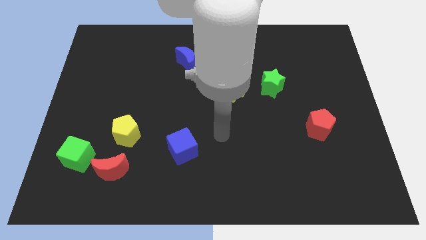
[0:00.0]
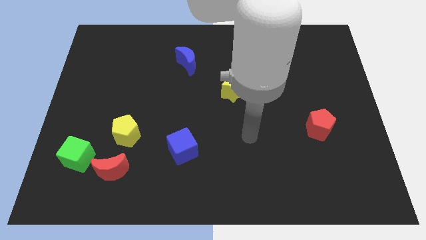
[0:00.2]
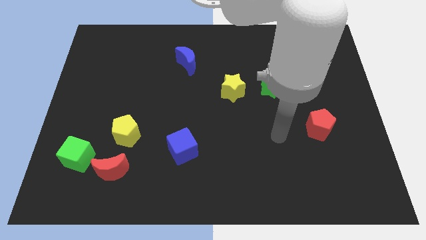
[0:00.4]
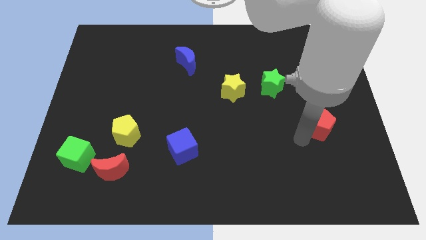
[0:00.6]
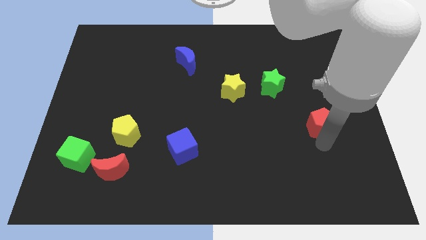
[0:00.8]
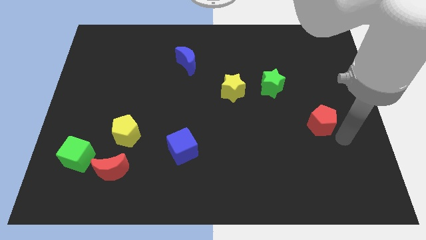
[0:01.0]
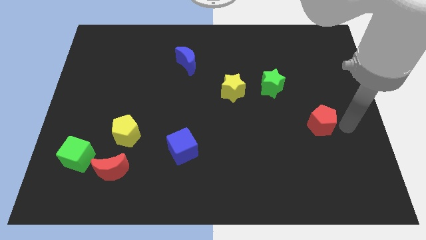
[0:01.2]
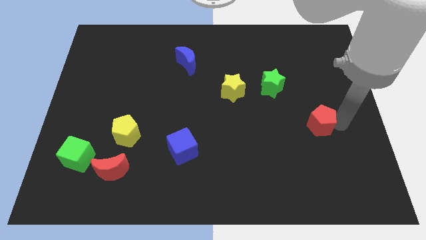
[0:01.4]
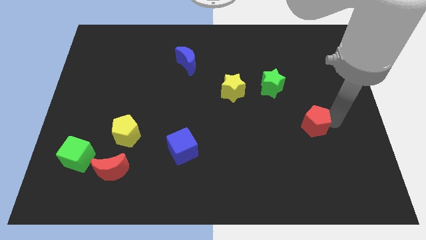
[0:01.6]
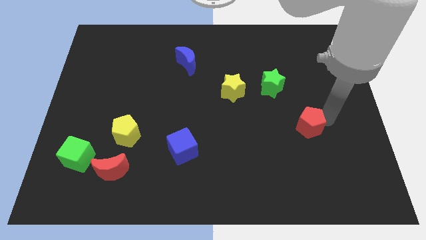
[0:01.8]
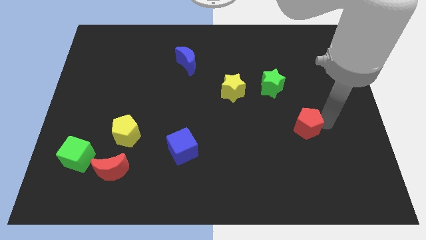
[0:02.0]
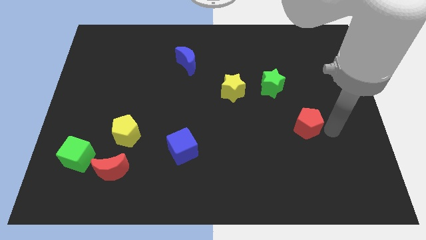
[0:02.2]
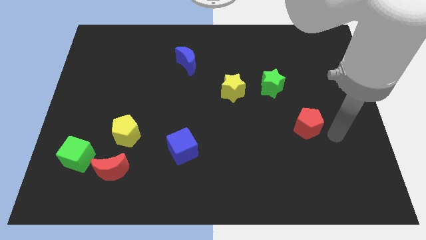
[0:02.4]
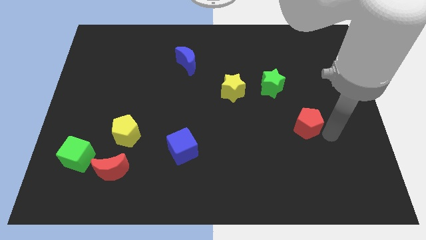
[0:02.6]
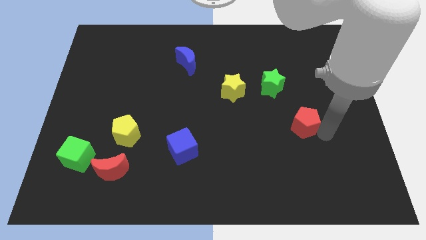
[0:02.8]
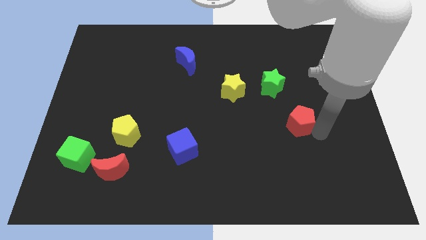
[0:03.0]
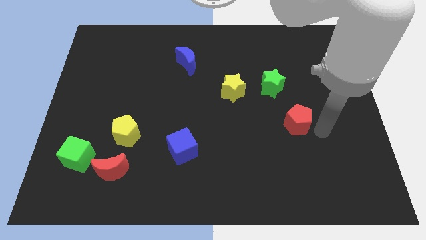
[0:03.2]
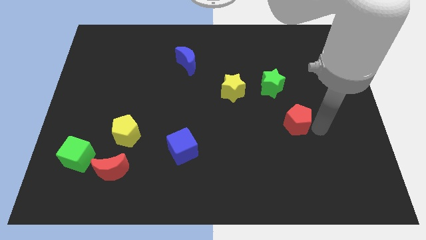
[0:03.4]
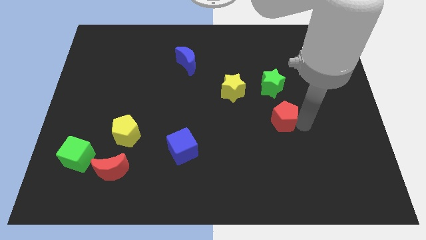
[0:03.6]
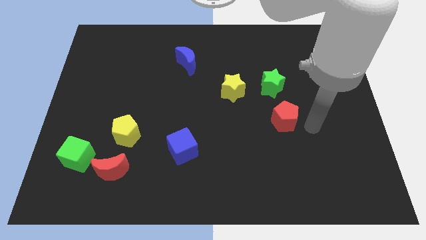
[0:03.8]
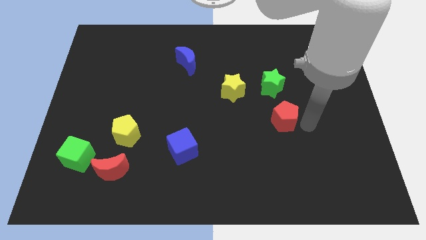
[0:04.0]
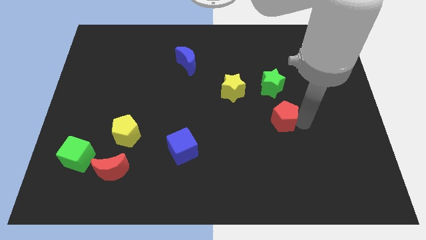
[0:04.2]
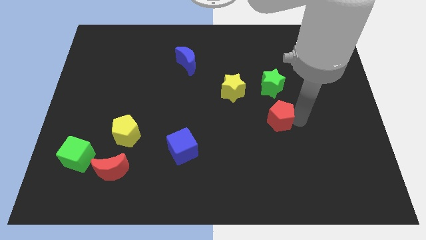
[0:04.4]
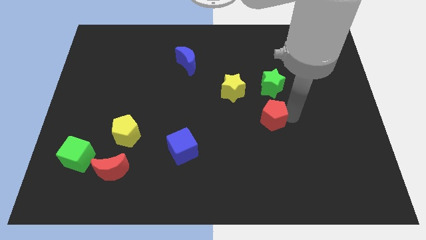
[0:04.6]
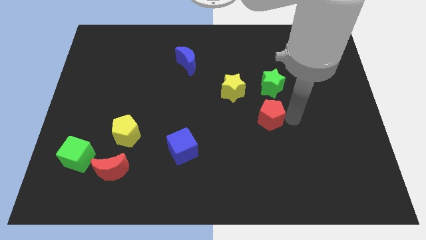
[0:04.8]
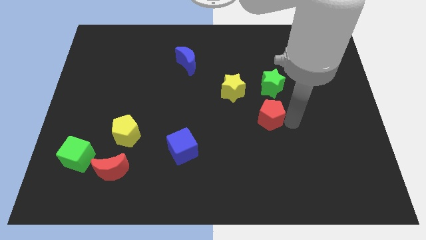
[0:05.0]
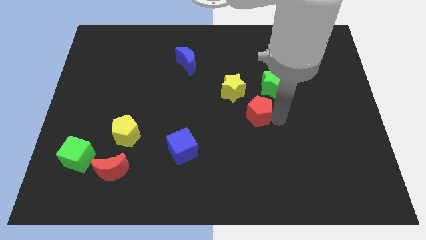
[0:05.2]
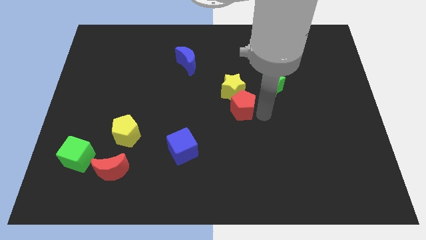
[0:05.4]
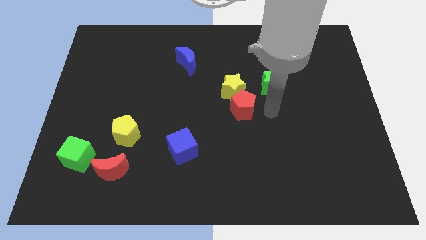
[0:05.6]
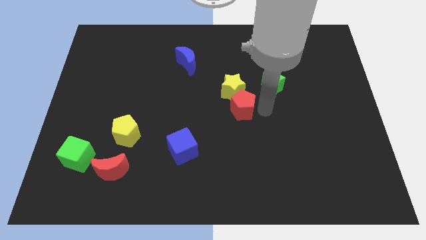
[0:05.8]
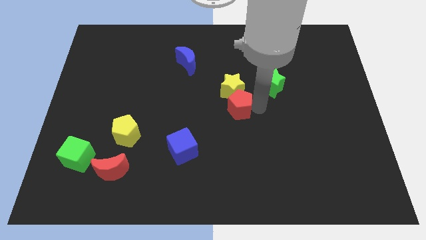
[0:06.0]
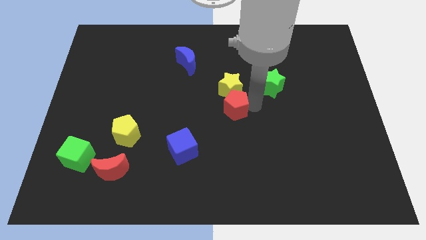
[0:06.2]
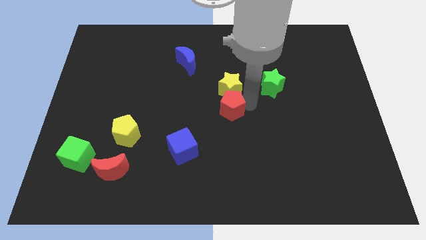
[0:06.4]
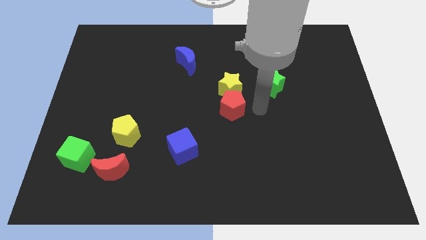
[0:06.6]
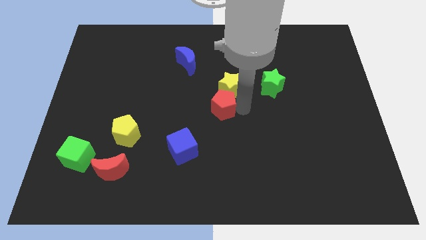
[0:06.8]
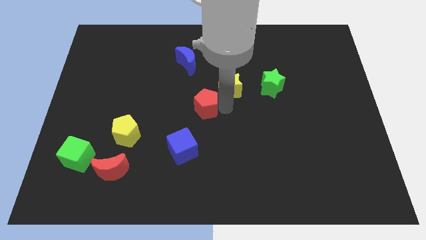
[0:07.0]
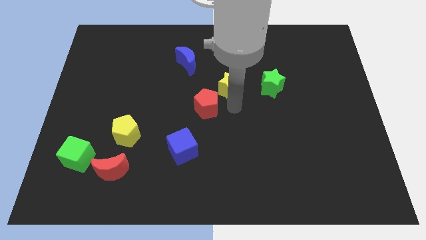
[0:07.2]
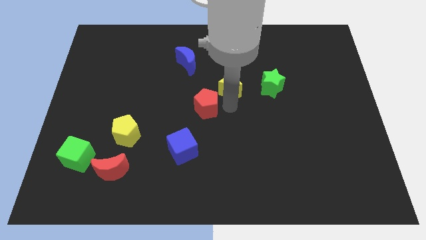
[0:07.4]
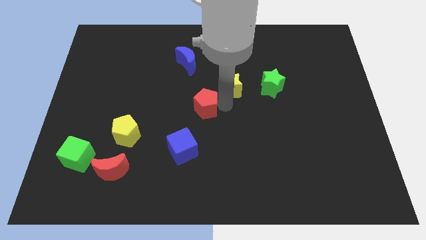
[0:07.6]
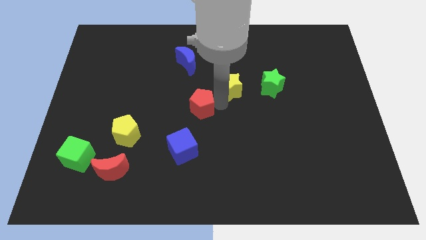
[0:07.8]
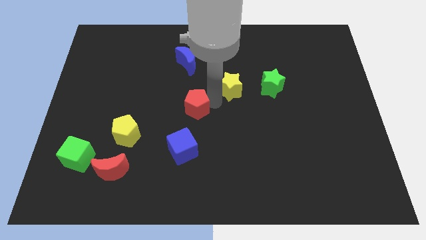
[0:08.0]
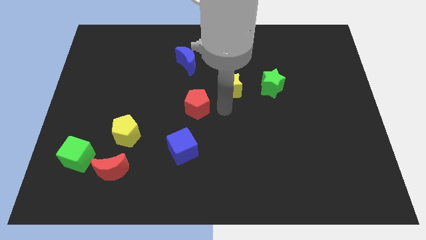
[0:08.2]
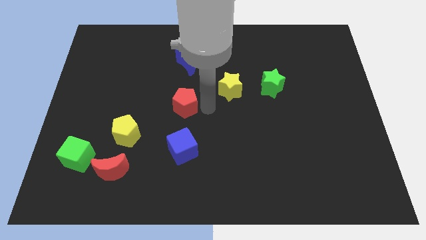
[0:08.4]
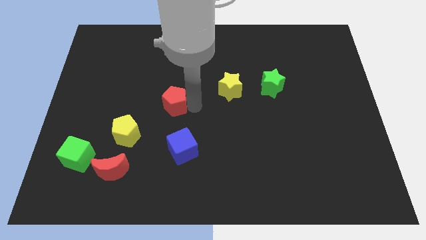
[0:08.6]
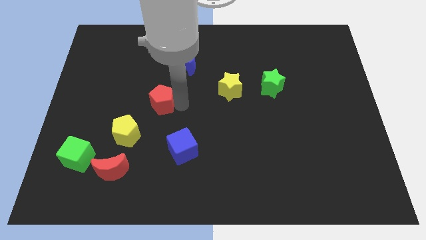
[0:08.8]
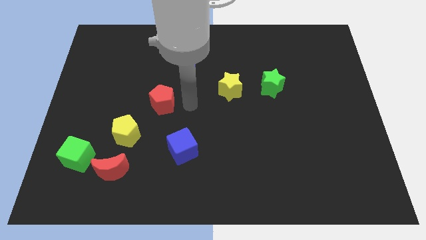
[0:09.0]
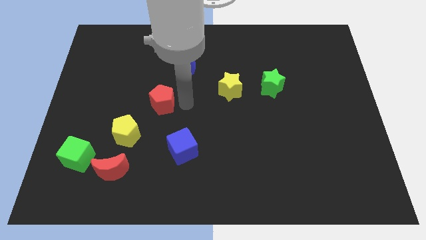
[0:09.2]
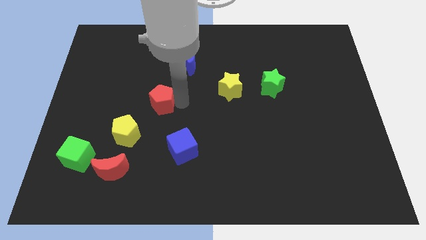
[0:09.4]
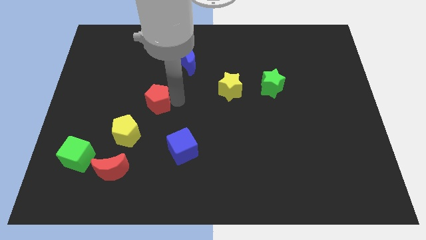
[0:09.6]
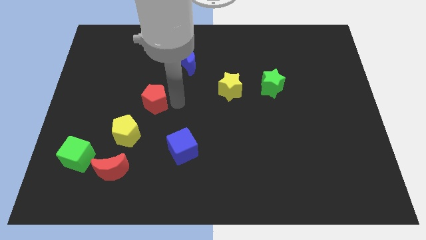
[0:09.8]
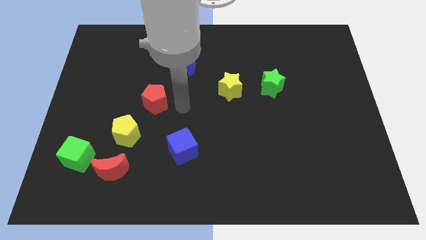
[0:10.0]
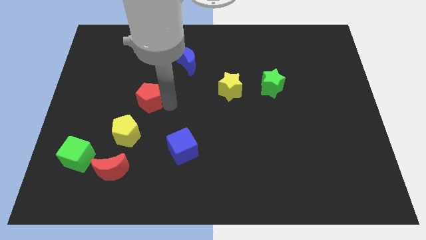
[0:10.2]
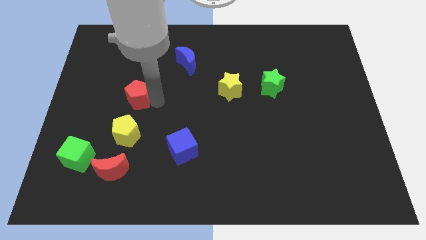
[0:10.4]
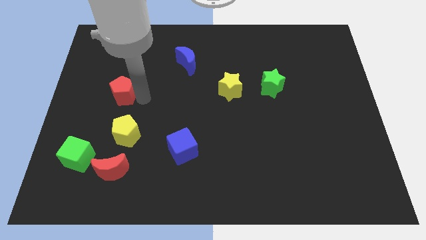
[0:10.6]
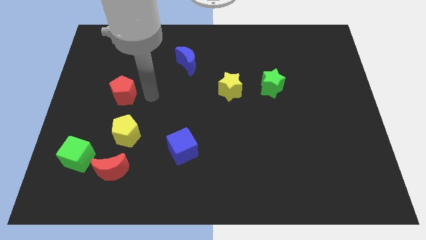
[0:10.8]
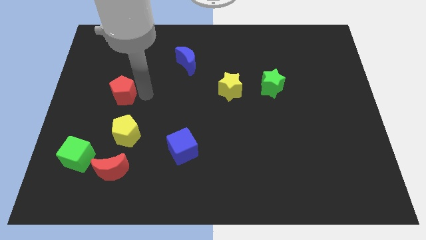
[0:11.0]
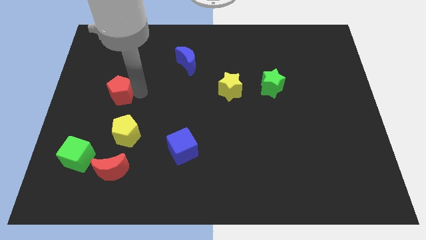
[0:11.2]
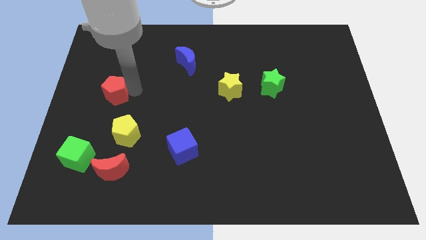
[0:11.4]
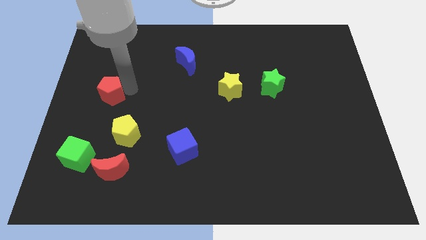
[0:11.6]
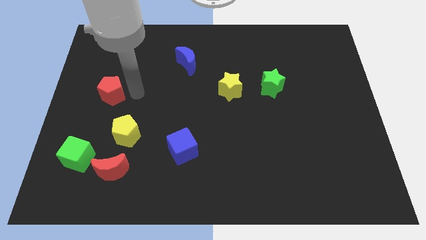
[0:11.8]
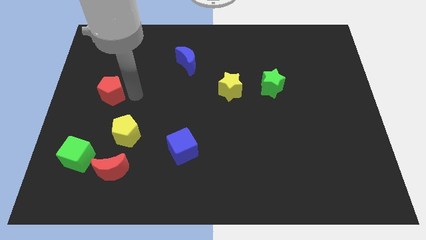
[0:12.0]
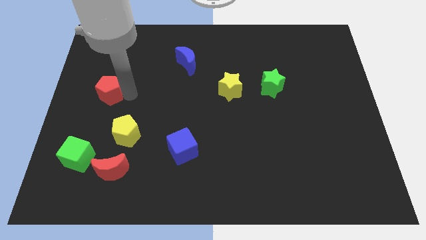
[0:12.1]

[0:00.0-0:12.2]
put the red pentagon to the left side

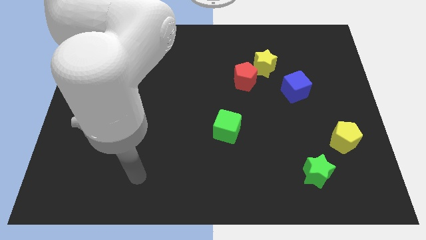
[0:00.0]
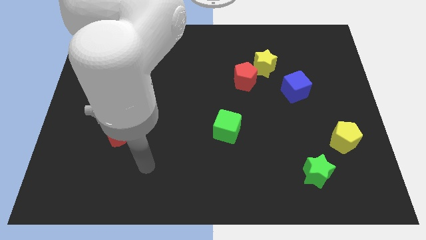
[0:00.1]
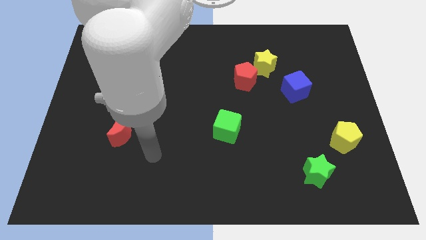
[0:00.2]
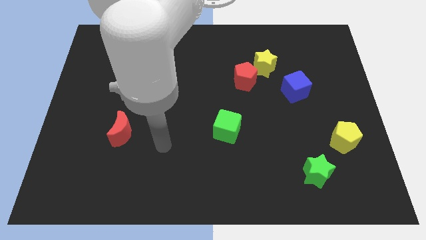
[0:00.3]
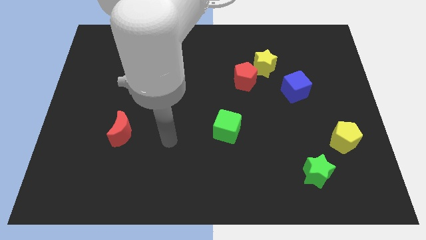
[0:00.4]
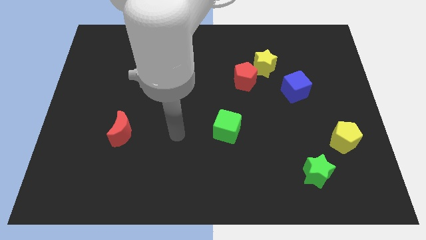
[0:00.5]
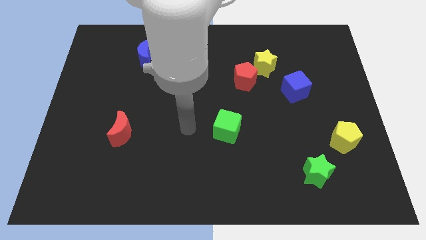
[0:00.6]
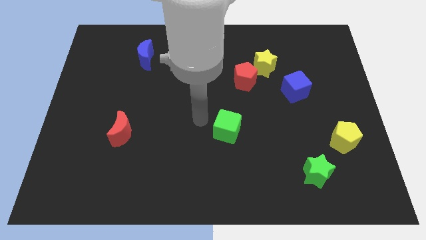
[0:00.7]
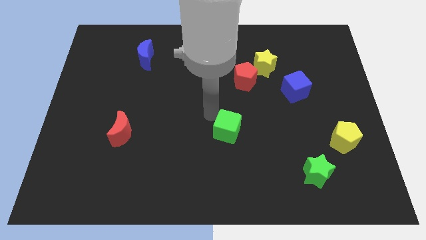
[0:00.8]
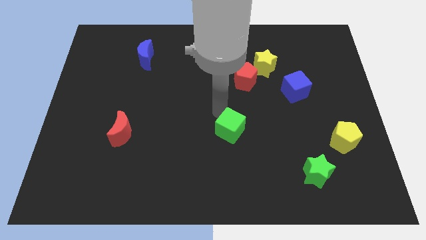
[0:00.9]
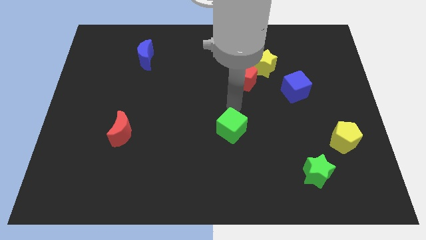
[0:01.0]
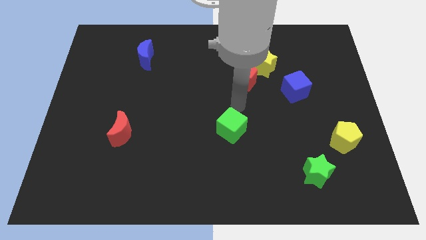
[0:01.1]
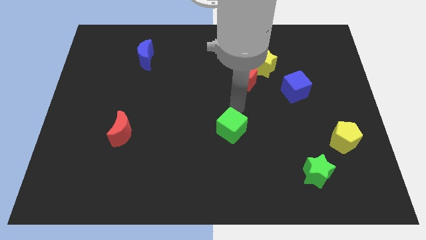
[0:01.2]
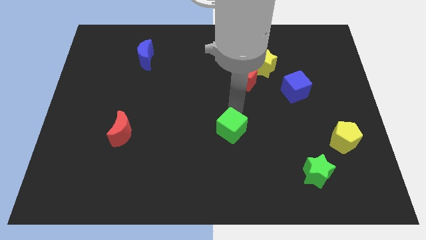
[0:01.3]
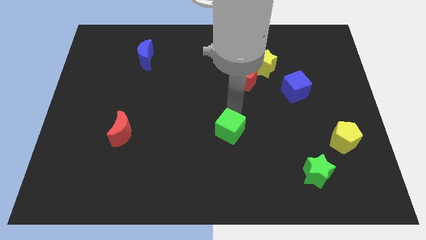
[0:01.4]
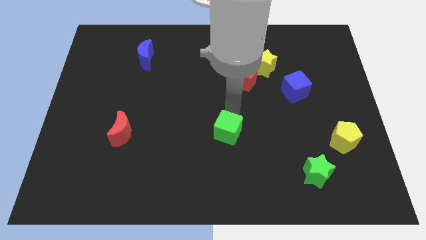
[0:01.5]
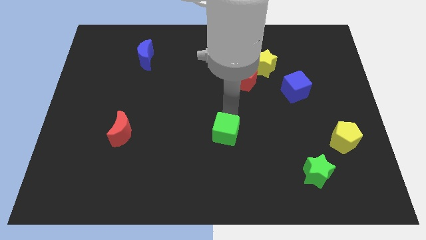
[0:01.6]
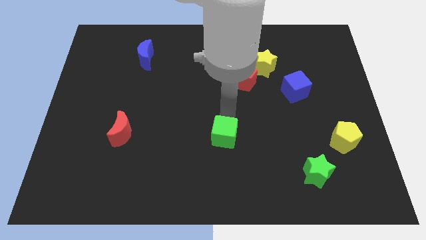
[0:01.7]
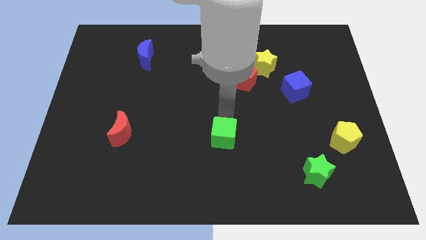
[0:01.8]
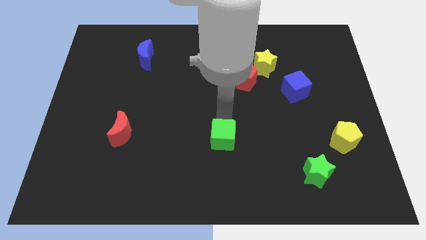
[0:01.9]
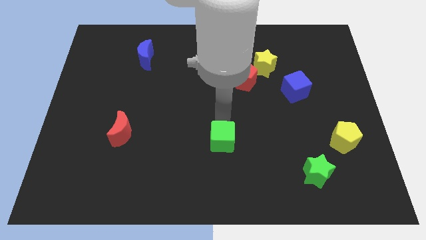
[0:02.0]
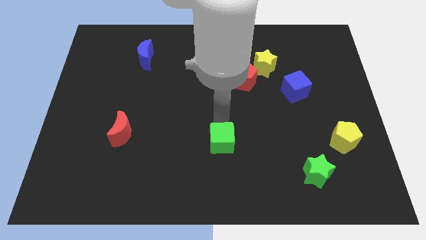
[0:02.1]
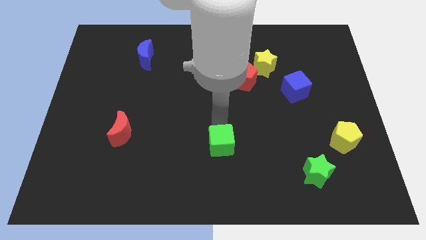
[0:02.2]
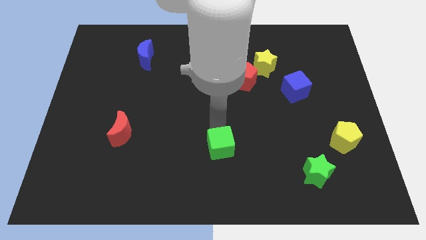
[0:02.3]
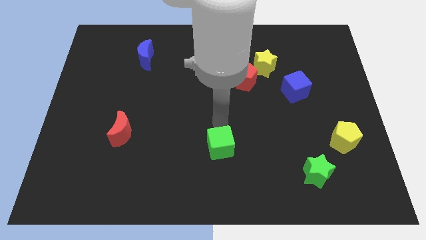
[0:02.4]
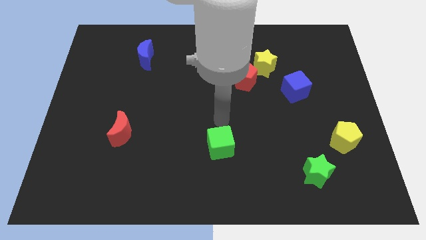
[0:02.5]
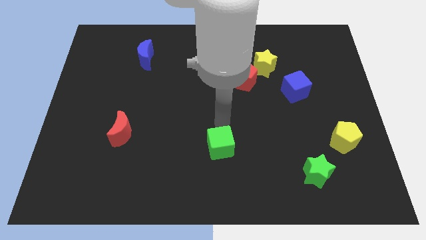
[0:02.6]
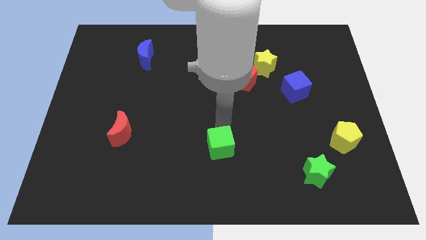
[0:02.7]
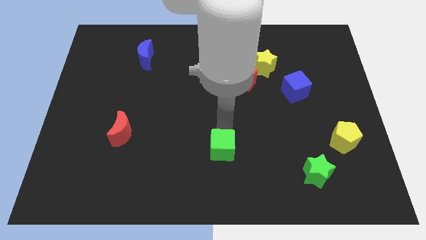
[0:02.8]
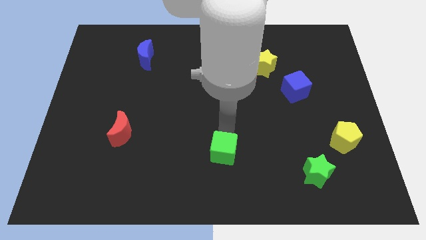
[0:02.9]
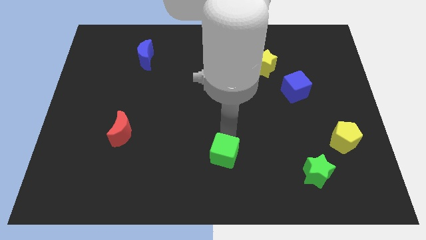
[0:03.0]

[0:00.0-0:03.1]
slide the green cube to the bottom side
